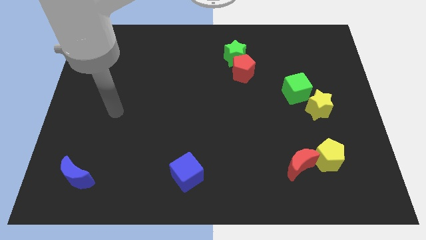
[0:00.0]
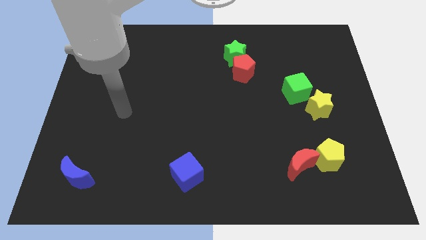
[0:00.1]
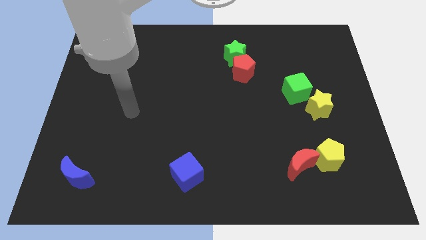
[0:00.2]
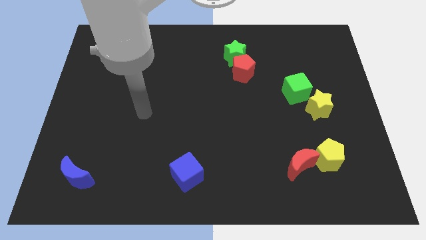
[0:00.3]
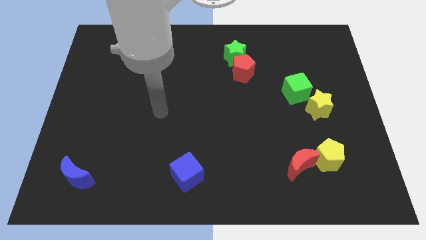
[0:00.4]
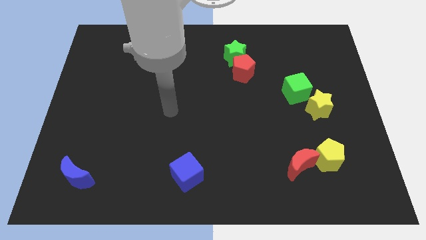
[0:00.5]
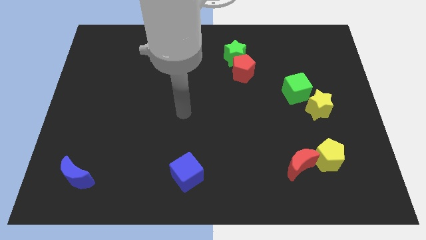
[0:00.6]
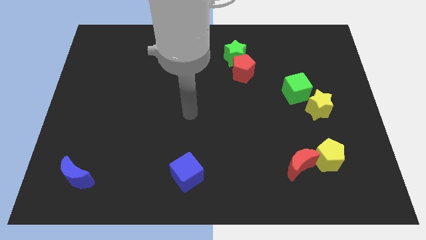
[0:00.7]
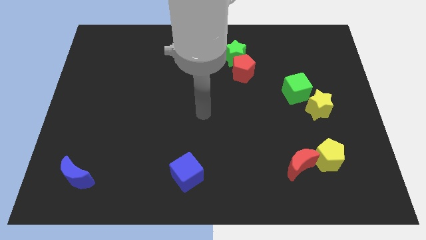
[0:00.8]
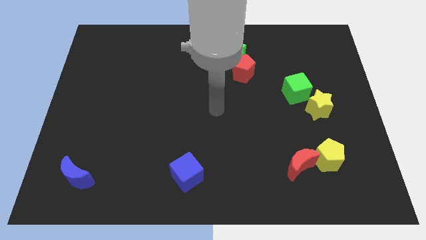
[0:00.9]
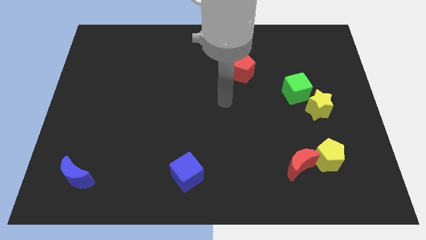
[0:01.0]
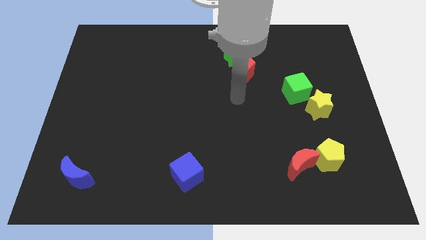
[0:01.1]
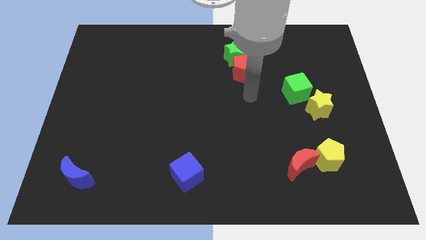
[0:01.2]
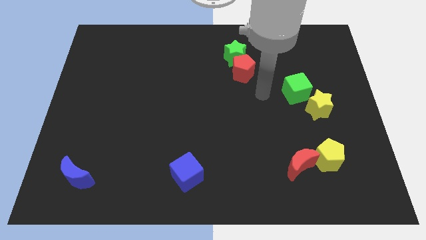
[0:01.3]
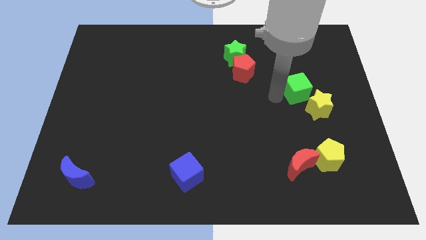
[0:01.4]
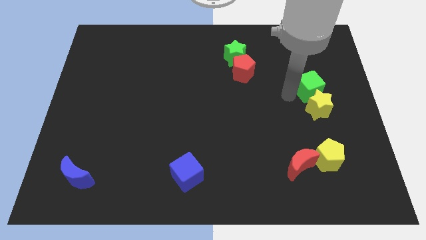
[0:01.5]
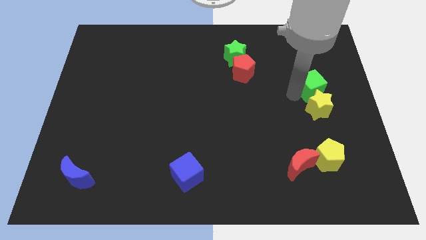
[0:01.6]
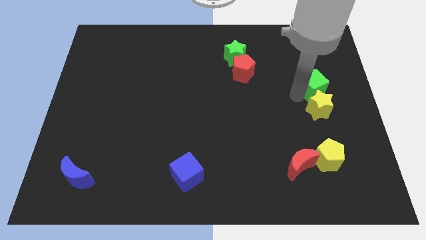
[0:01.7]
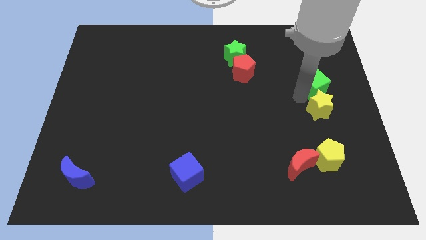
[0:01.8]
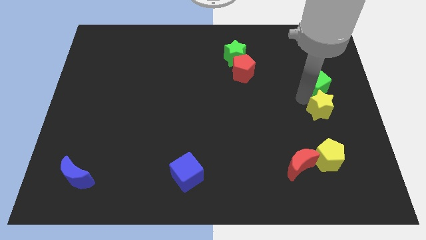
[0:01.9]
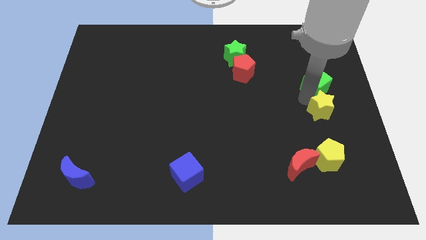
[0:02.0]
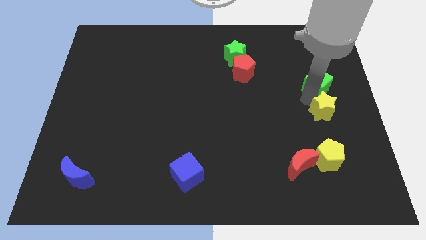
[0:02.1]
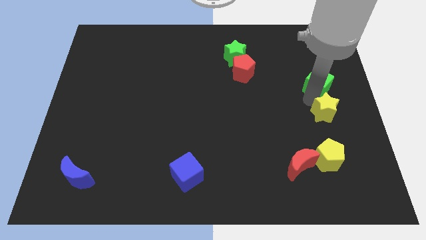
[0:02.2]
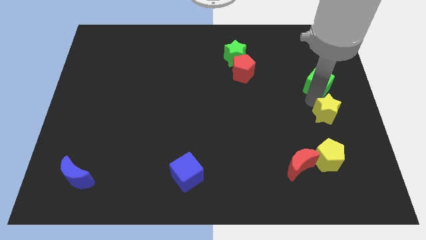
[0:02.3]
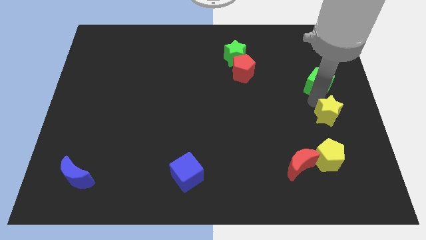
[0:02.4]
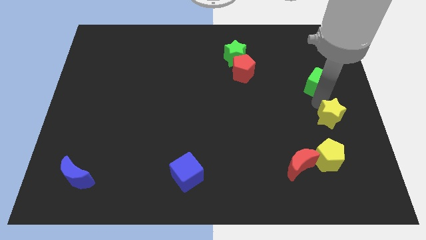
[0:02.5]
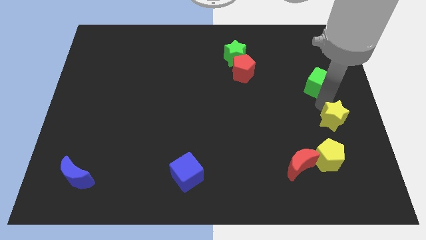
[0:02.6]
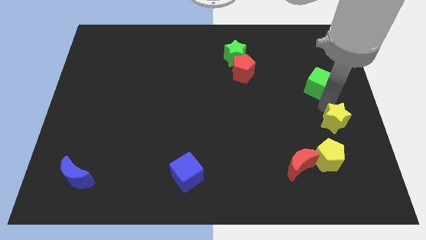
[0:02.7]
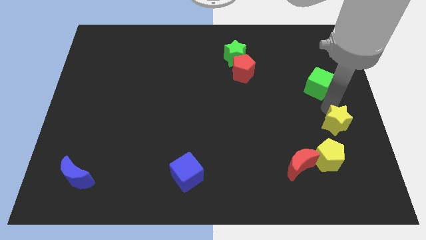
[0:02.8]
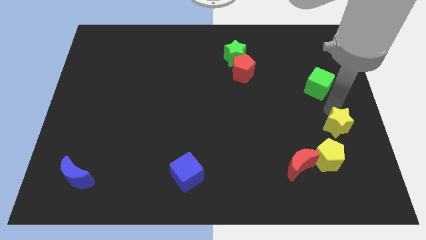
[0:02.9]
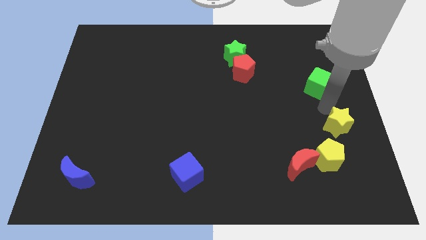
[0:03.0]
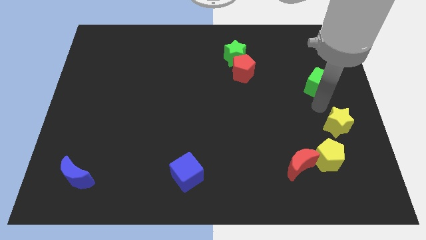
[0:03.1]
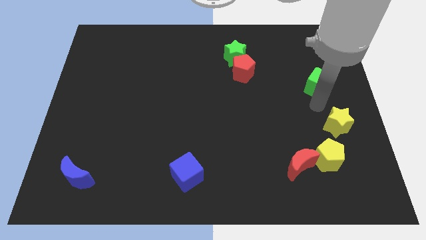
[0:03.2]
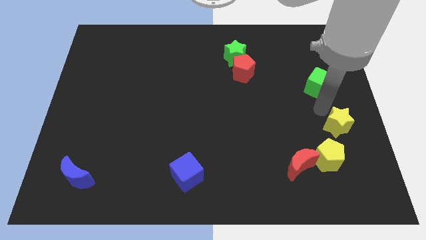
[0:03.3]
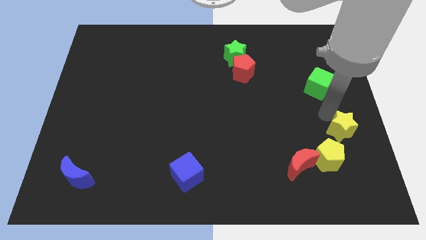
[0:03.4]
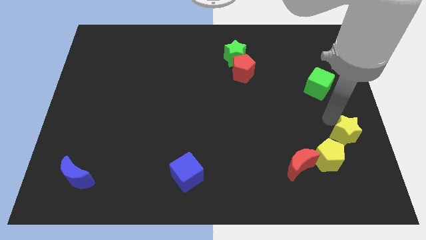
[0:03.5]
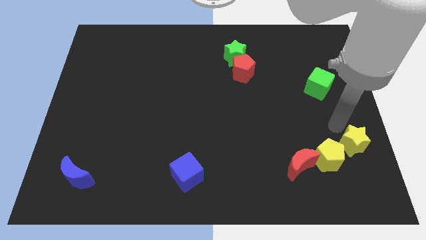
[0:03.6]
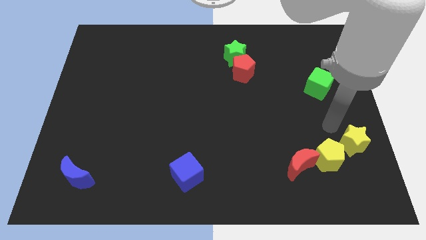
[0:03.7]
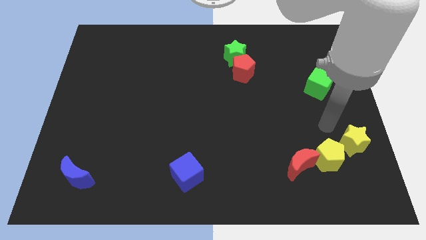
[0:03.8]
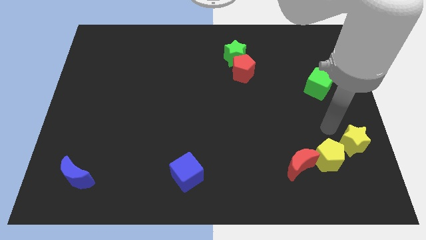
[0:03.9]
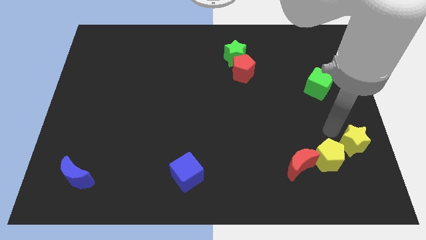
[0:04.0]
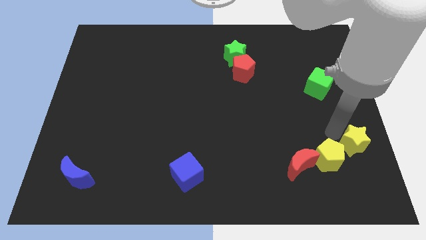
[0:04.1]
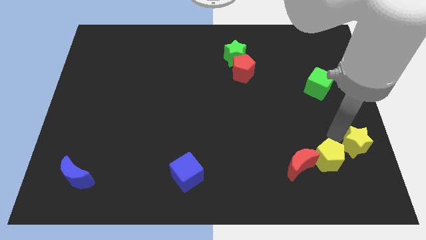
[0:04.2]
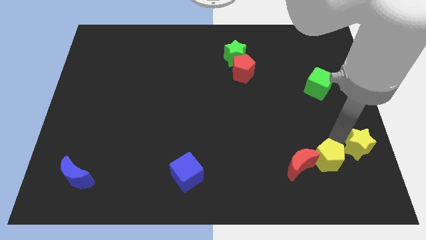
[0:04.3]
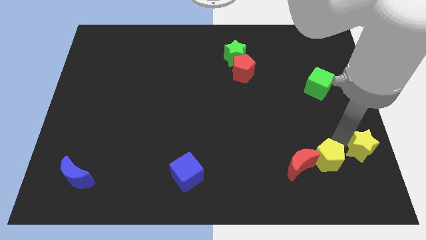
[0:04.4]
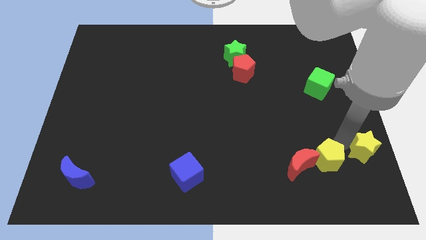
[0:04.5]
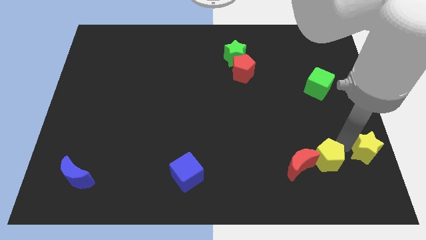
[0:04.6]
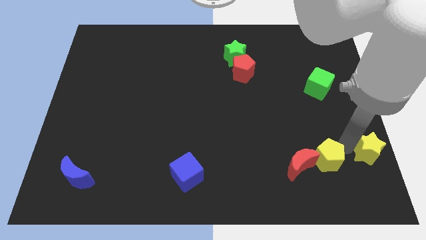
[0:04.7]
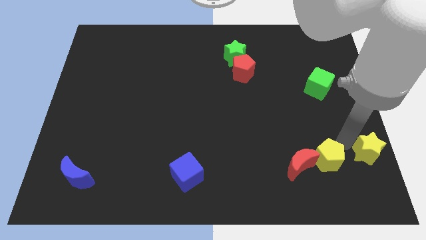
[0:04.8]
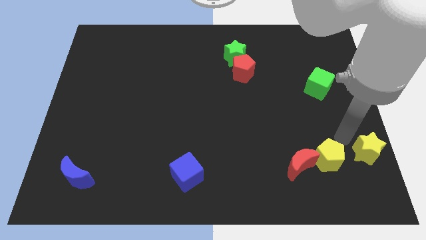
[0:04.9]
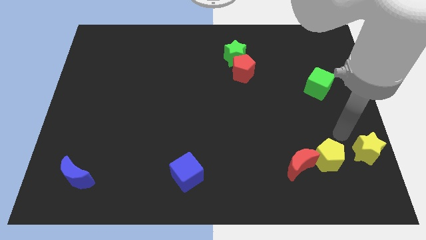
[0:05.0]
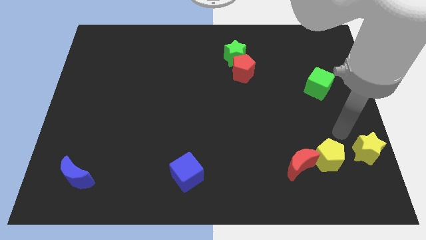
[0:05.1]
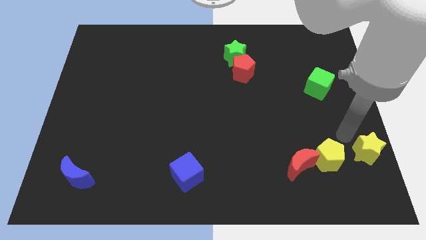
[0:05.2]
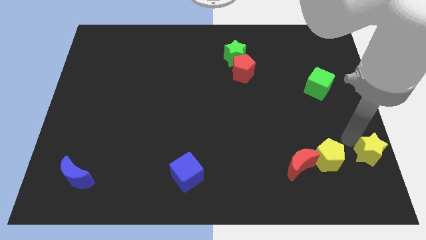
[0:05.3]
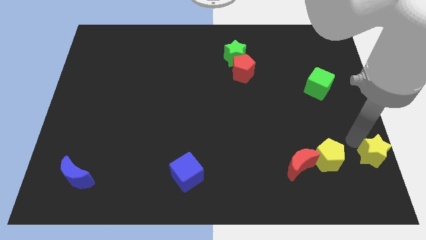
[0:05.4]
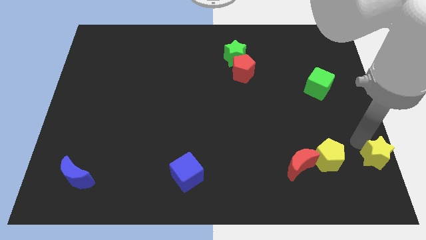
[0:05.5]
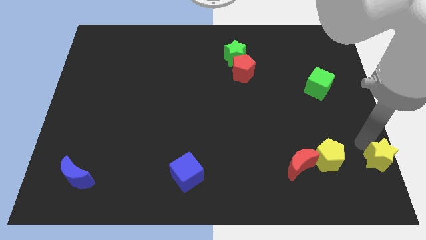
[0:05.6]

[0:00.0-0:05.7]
push the yellow star to the bottom right corner

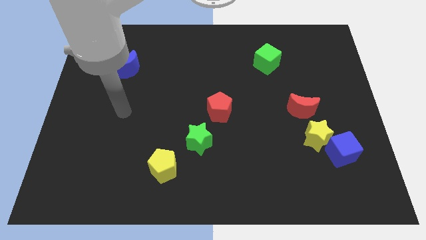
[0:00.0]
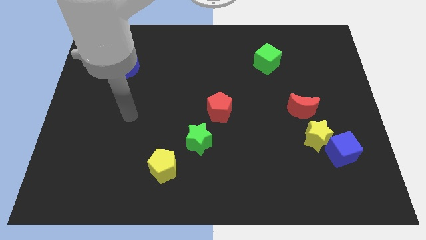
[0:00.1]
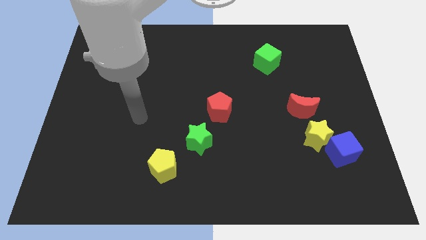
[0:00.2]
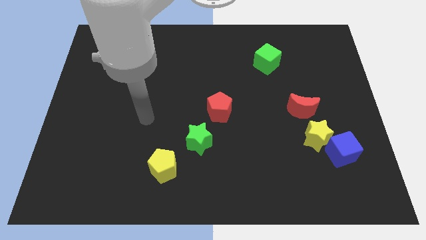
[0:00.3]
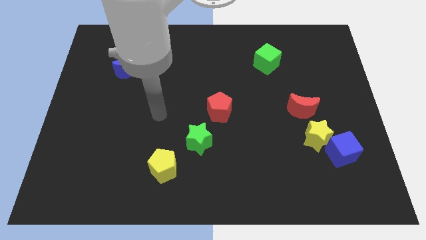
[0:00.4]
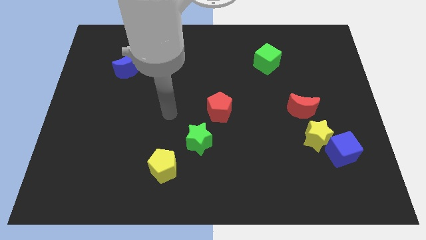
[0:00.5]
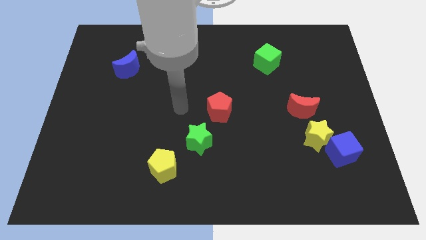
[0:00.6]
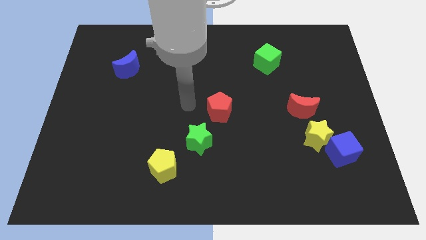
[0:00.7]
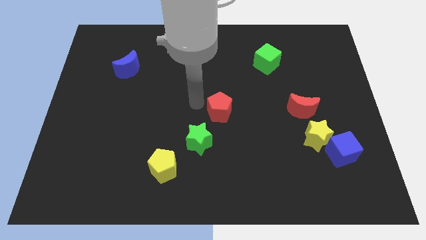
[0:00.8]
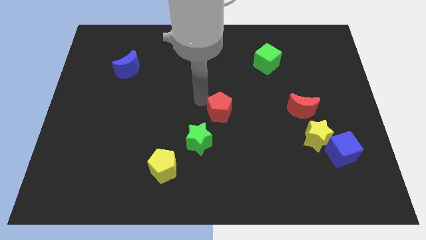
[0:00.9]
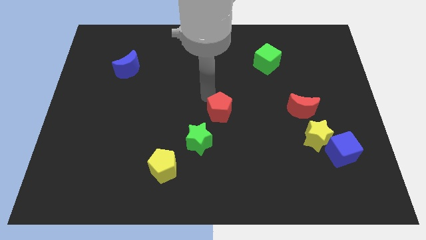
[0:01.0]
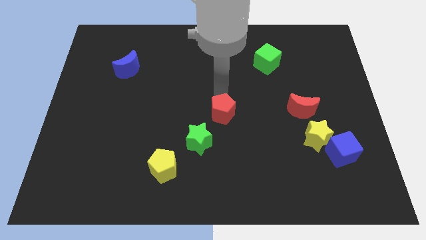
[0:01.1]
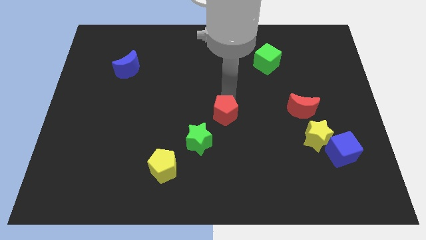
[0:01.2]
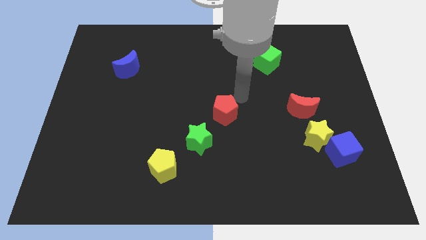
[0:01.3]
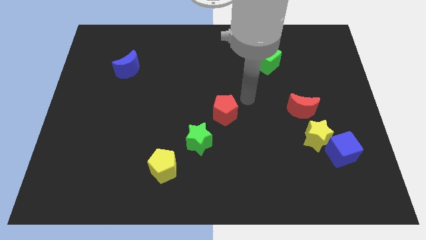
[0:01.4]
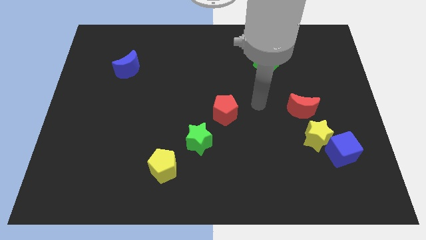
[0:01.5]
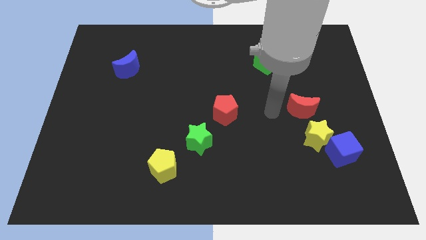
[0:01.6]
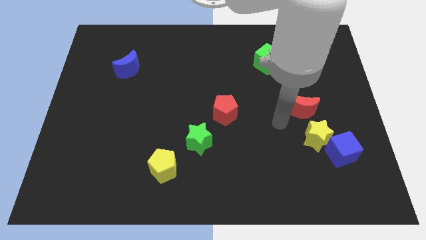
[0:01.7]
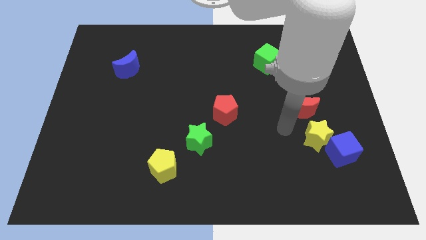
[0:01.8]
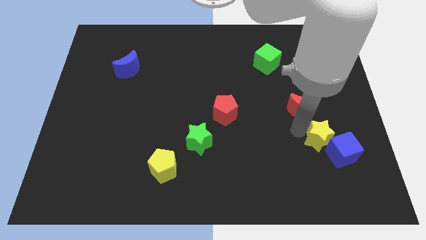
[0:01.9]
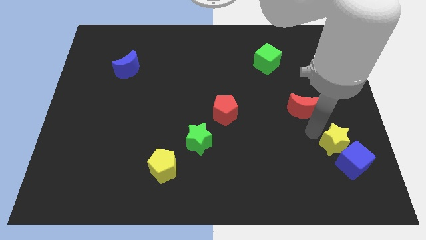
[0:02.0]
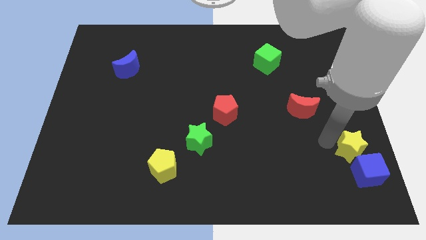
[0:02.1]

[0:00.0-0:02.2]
move the blue cube to the lower right corner
